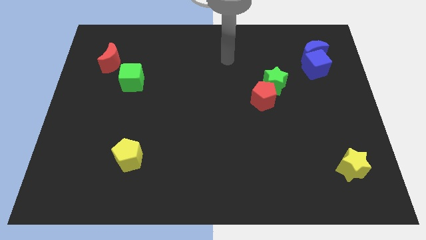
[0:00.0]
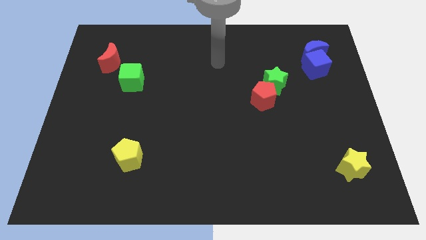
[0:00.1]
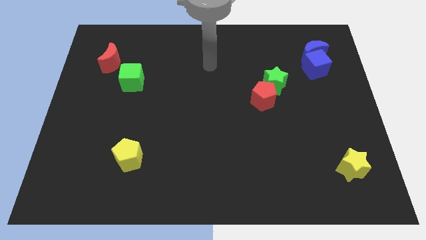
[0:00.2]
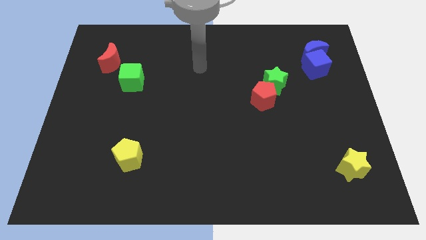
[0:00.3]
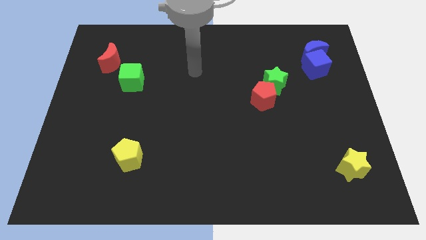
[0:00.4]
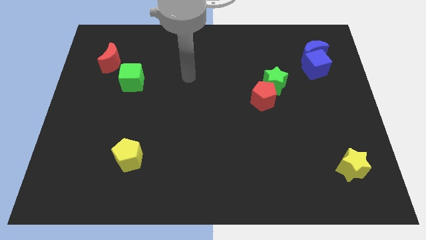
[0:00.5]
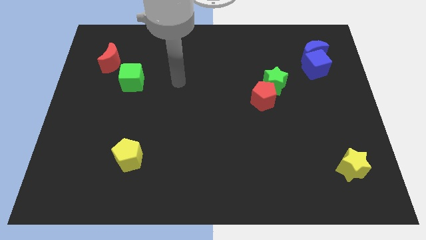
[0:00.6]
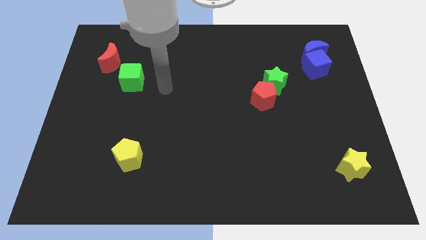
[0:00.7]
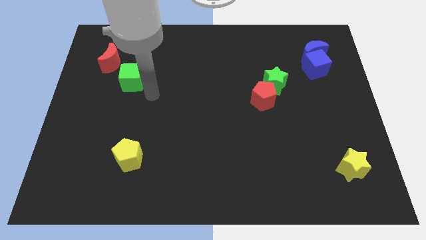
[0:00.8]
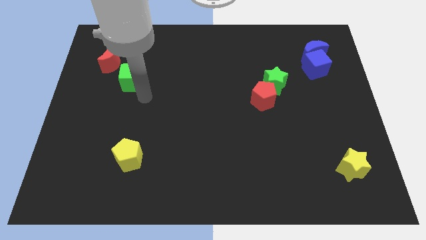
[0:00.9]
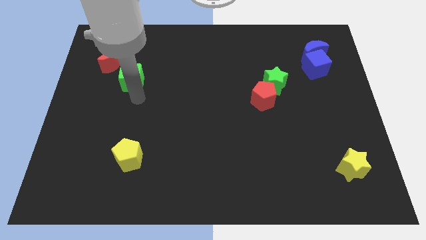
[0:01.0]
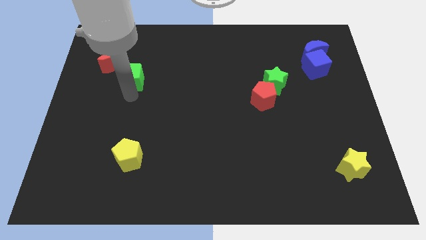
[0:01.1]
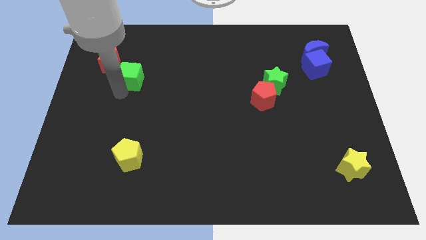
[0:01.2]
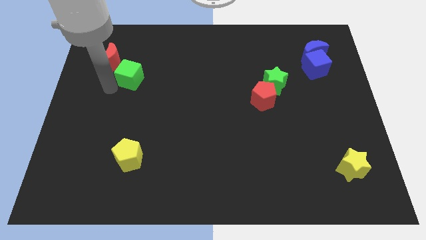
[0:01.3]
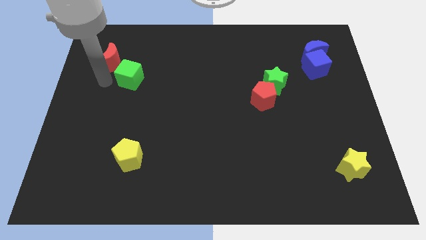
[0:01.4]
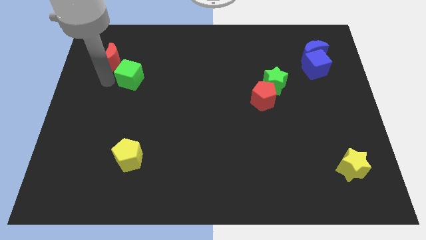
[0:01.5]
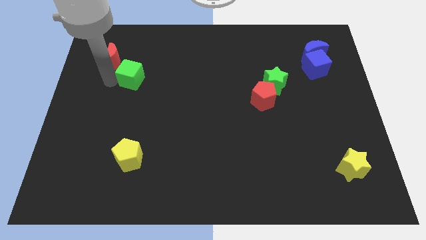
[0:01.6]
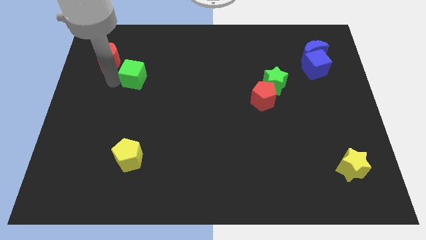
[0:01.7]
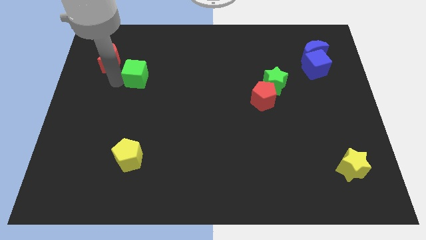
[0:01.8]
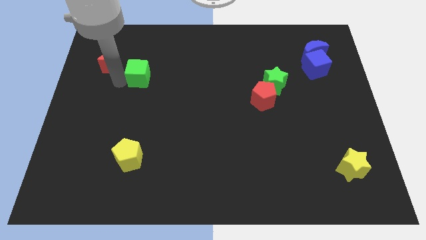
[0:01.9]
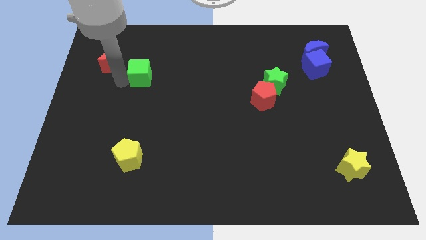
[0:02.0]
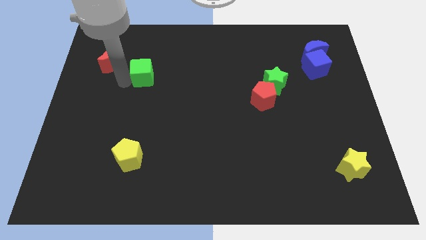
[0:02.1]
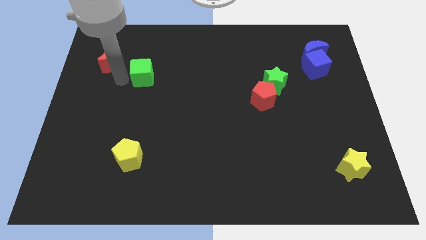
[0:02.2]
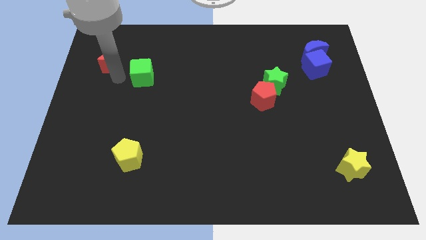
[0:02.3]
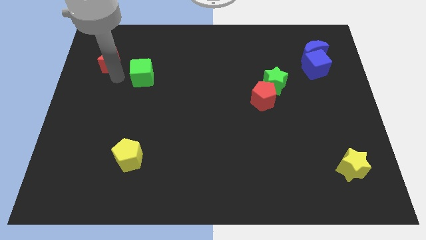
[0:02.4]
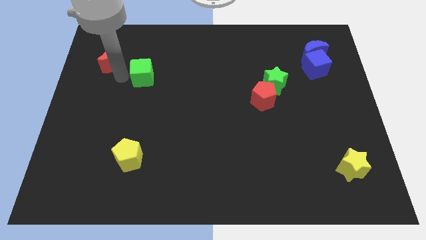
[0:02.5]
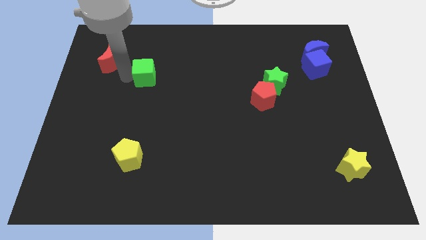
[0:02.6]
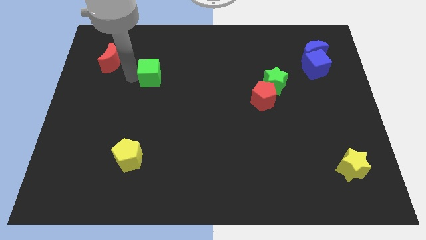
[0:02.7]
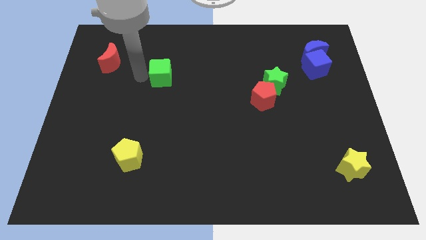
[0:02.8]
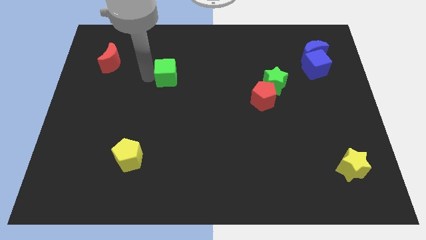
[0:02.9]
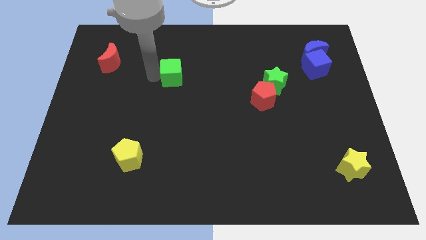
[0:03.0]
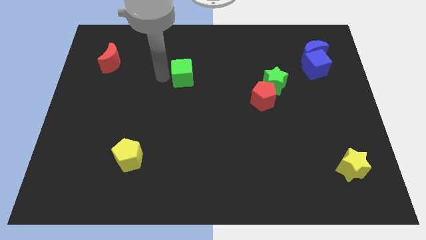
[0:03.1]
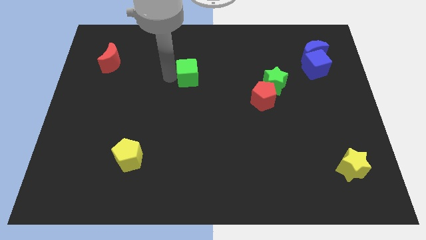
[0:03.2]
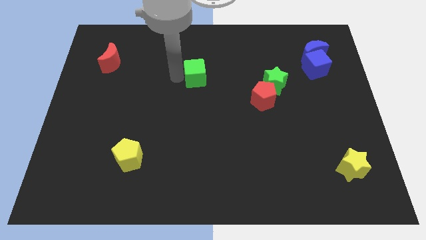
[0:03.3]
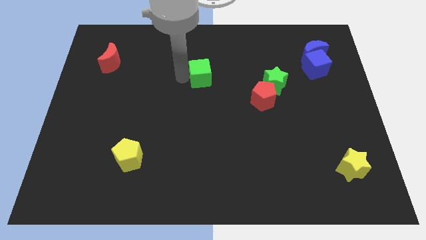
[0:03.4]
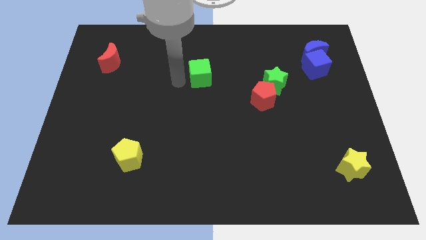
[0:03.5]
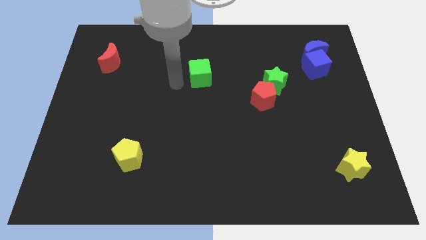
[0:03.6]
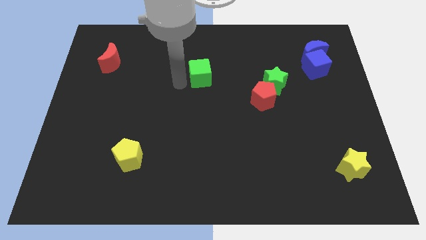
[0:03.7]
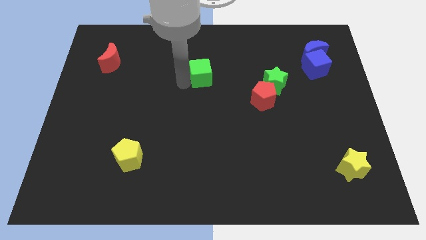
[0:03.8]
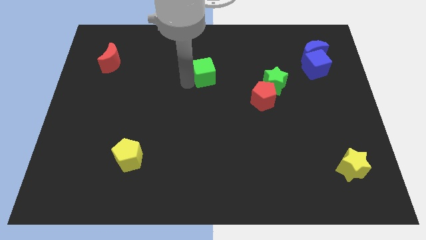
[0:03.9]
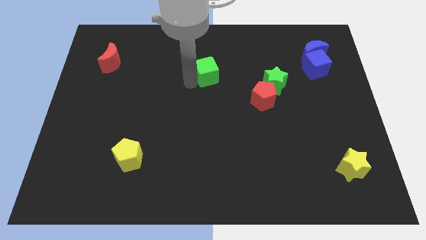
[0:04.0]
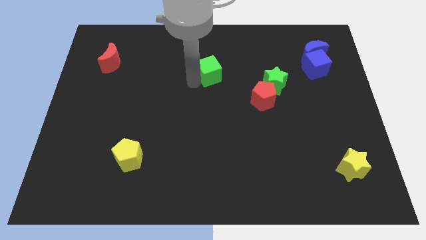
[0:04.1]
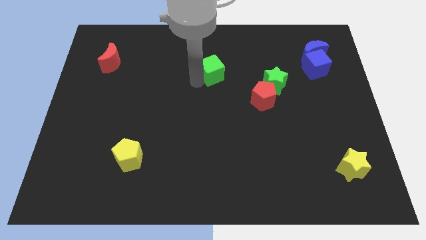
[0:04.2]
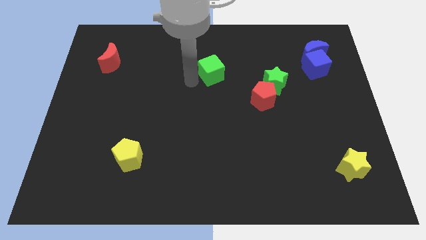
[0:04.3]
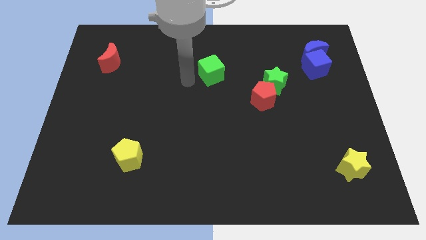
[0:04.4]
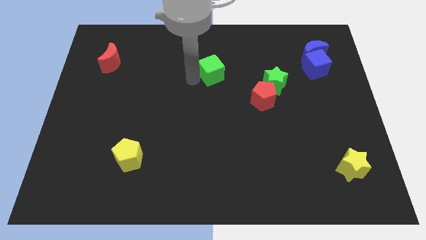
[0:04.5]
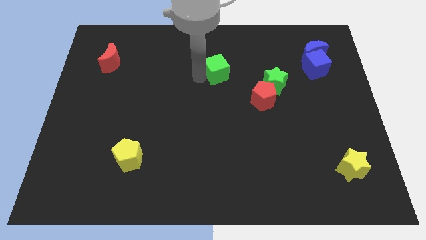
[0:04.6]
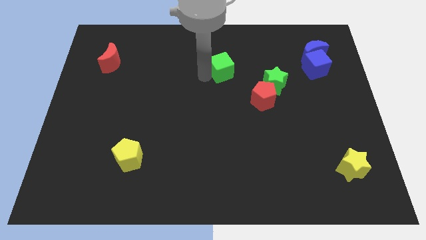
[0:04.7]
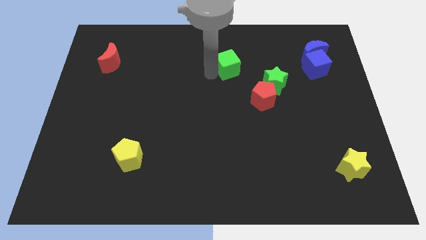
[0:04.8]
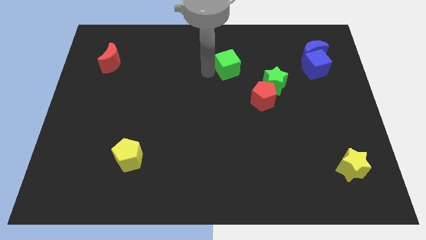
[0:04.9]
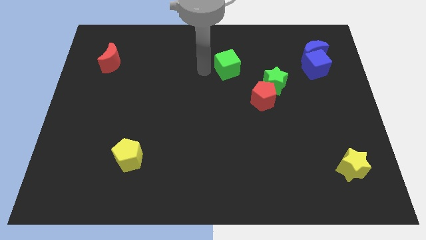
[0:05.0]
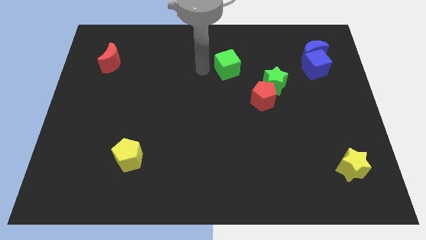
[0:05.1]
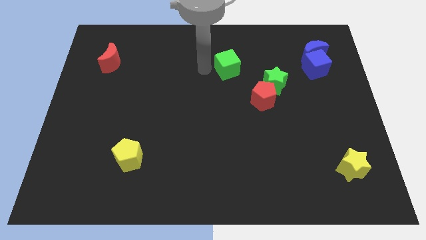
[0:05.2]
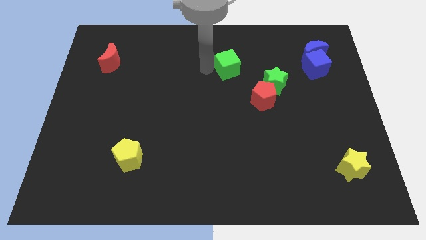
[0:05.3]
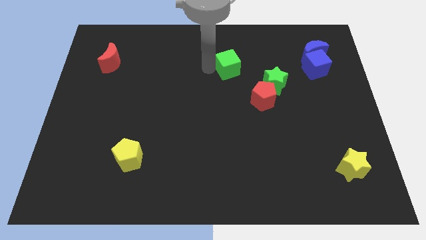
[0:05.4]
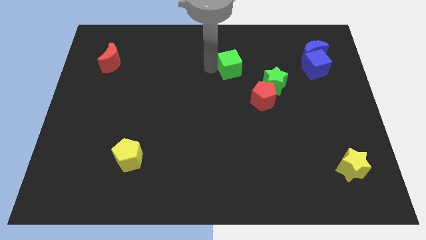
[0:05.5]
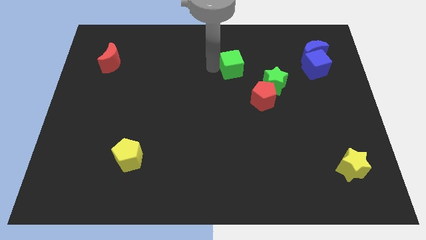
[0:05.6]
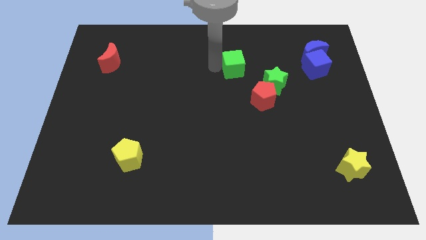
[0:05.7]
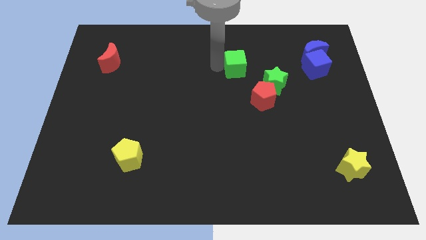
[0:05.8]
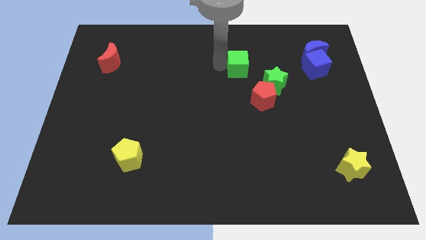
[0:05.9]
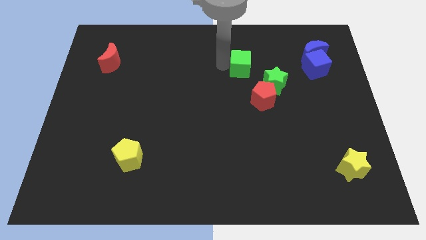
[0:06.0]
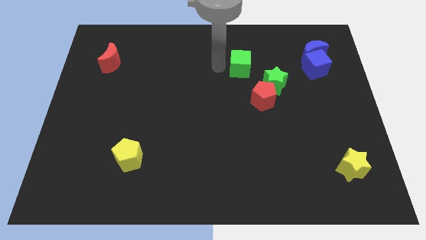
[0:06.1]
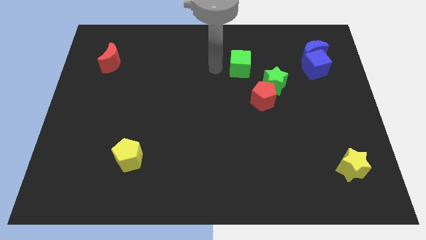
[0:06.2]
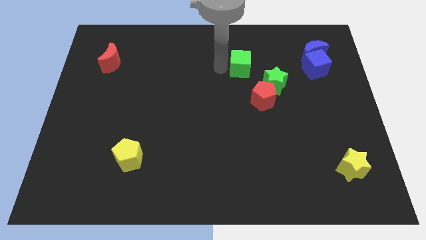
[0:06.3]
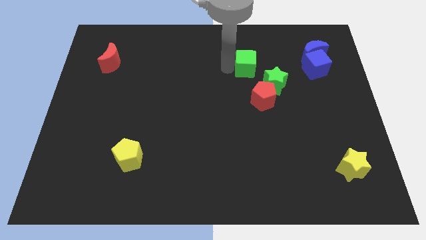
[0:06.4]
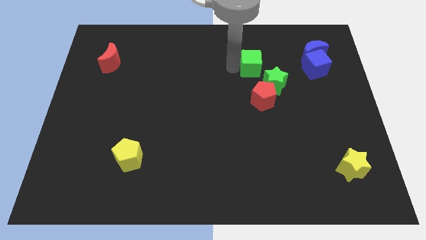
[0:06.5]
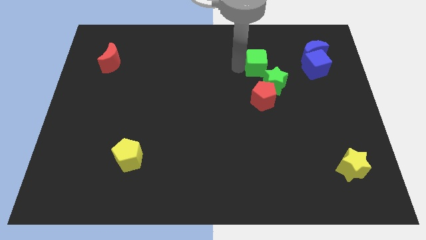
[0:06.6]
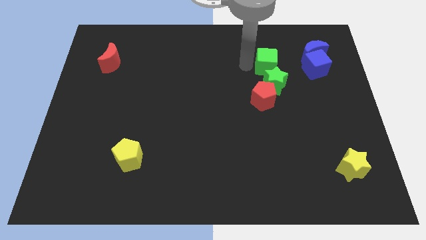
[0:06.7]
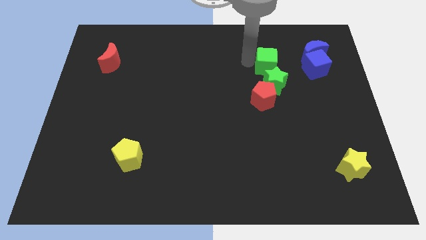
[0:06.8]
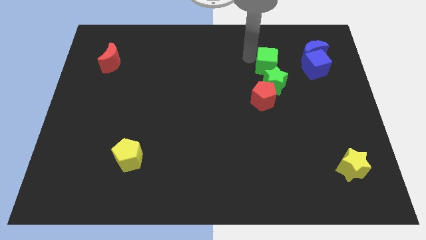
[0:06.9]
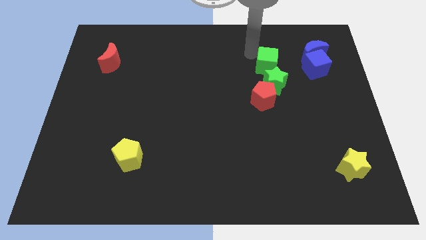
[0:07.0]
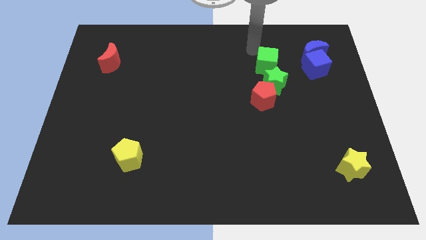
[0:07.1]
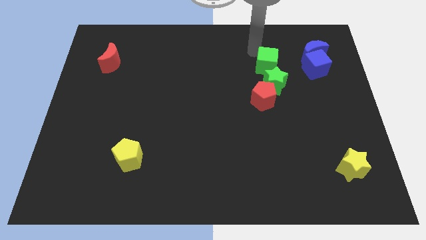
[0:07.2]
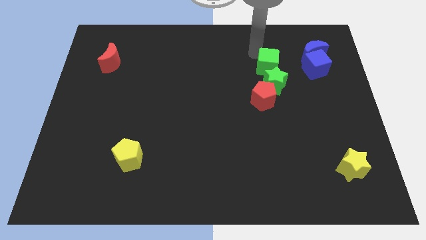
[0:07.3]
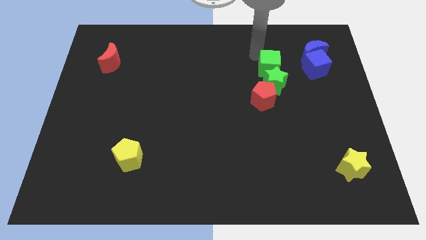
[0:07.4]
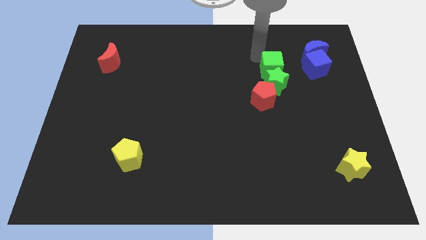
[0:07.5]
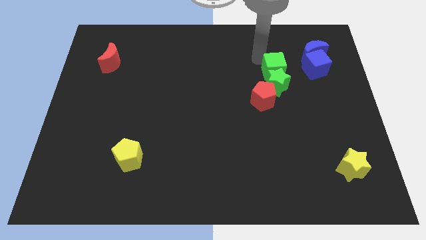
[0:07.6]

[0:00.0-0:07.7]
push the green cube diagonally up and to the right of the red pentagon
